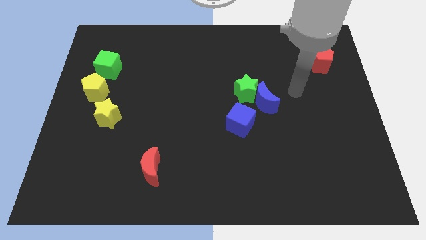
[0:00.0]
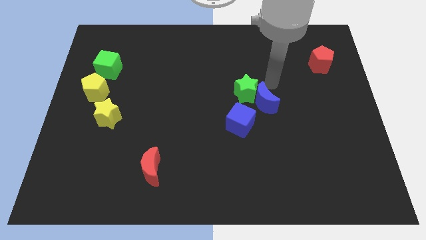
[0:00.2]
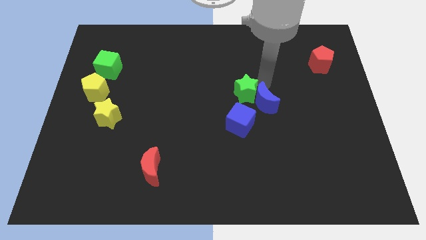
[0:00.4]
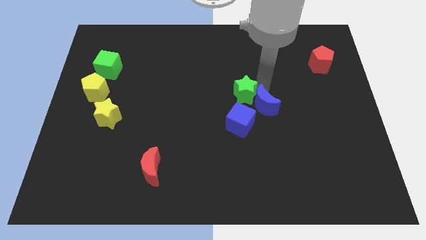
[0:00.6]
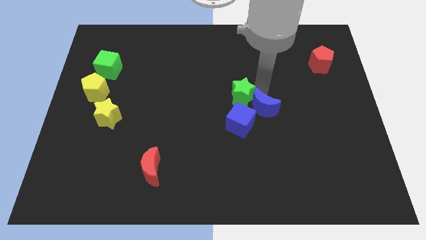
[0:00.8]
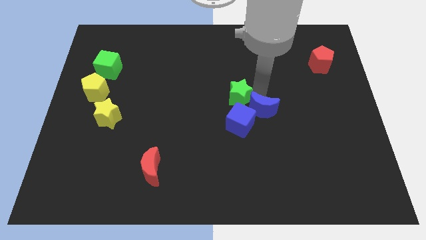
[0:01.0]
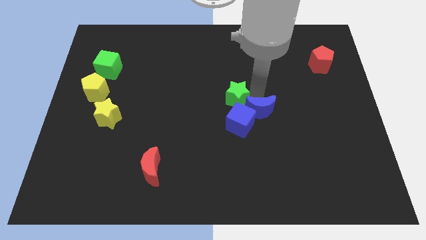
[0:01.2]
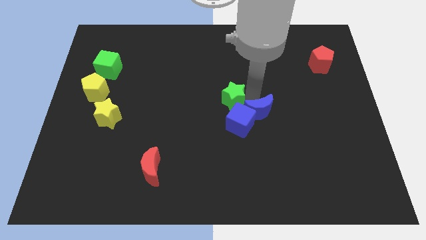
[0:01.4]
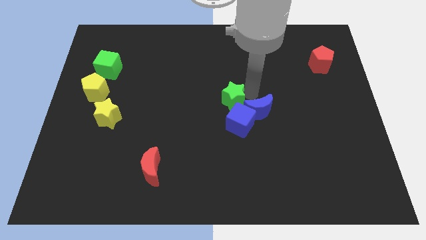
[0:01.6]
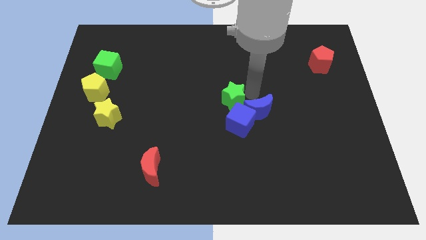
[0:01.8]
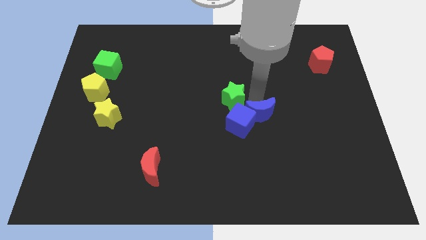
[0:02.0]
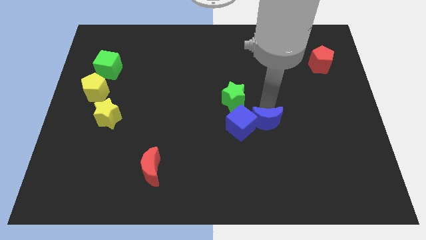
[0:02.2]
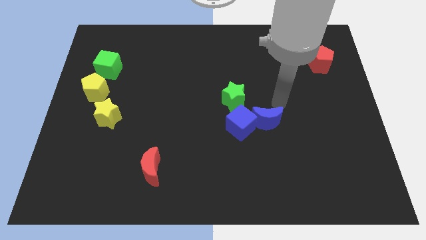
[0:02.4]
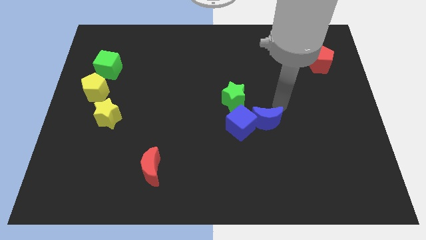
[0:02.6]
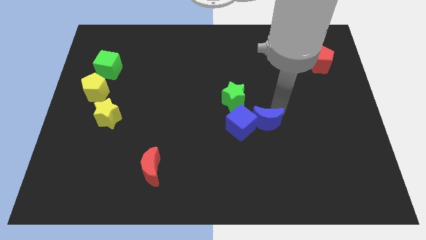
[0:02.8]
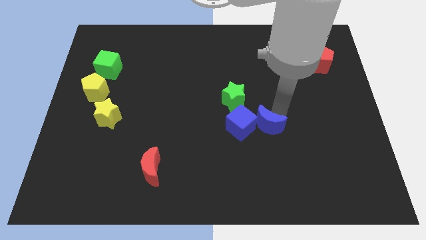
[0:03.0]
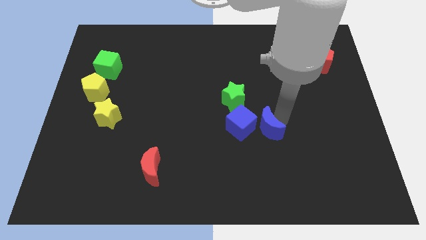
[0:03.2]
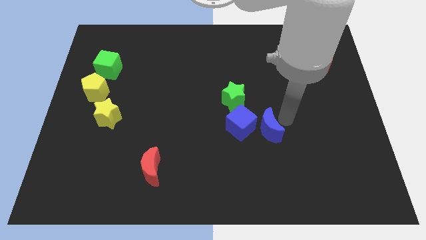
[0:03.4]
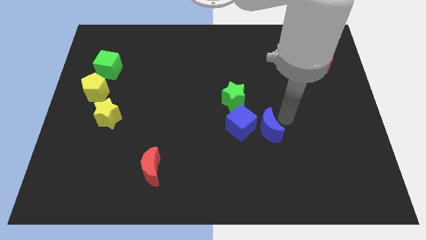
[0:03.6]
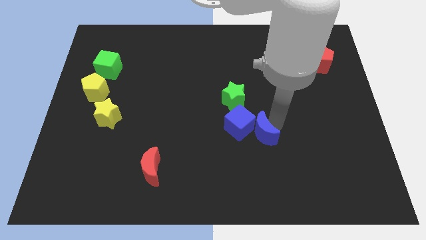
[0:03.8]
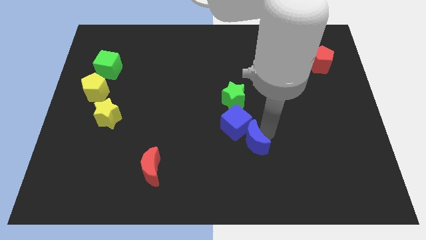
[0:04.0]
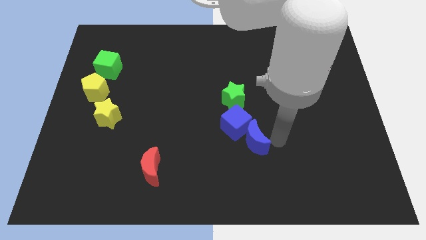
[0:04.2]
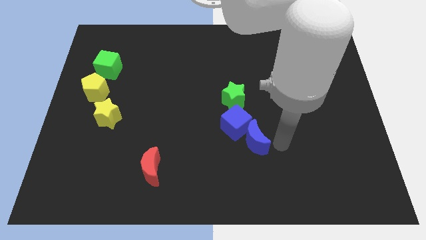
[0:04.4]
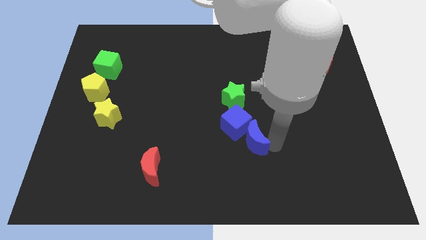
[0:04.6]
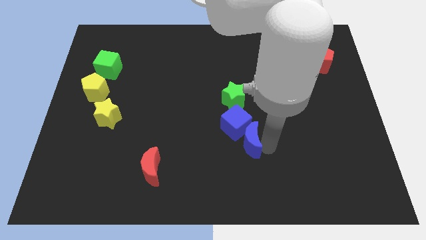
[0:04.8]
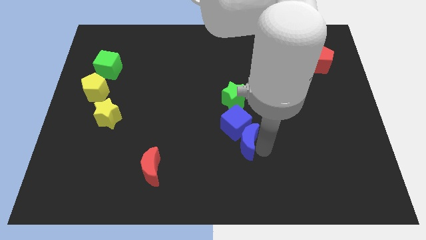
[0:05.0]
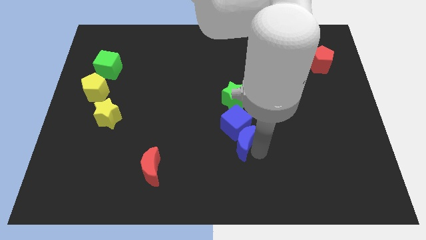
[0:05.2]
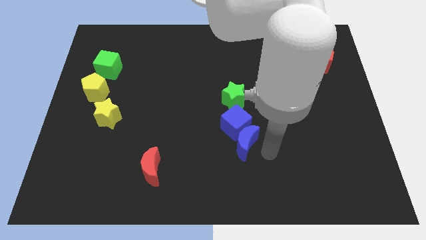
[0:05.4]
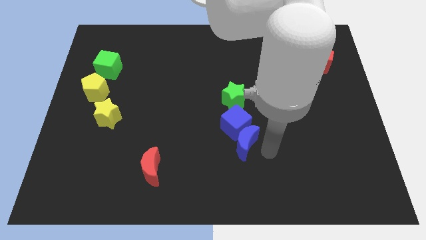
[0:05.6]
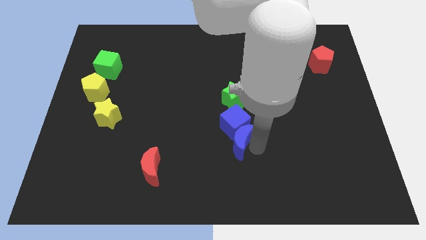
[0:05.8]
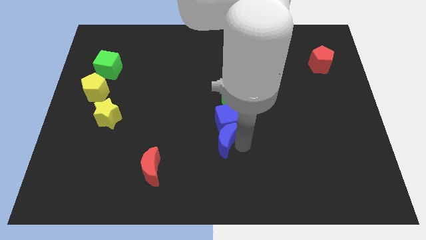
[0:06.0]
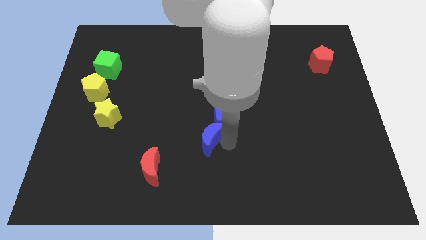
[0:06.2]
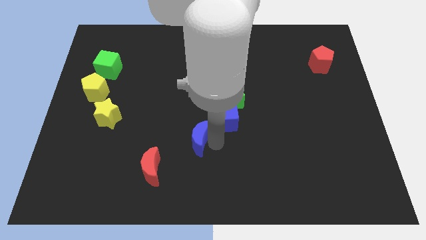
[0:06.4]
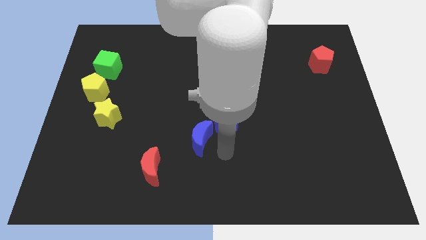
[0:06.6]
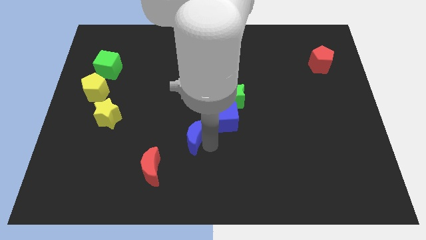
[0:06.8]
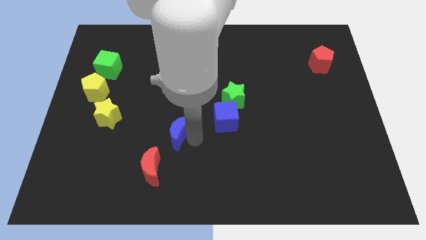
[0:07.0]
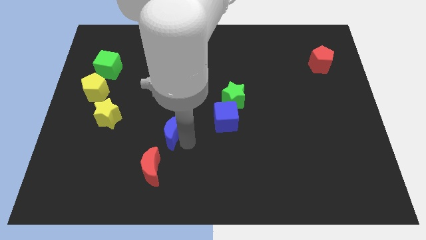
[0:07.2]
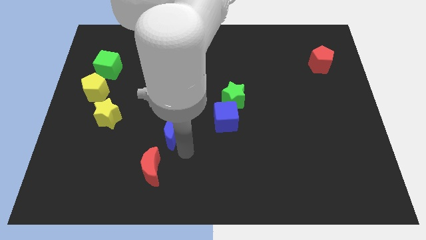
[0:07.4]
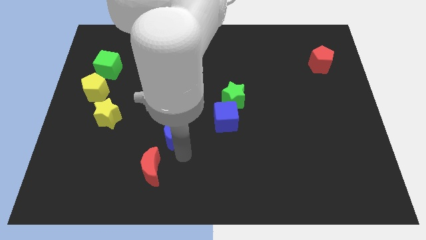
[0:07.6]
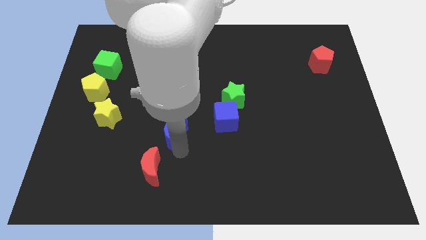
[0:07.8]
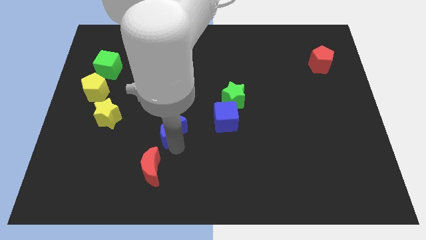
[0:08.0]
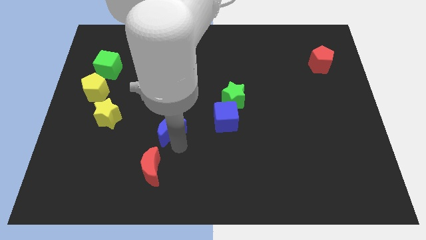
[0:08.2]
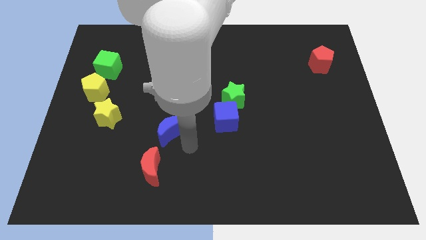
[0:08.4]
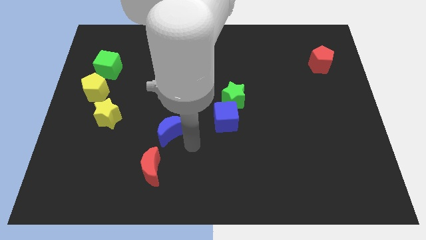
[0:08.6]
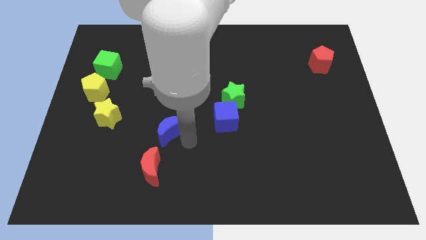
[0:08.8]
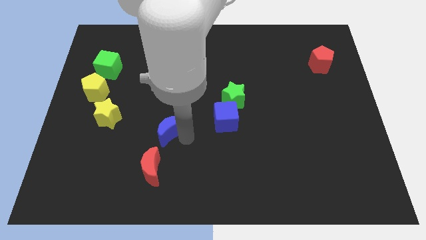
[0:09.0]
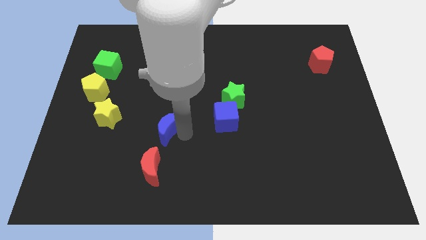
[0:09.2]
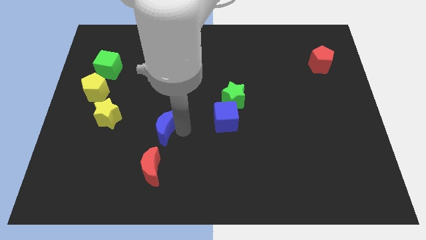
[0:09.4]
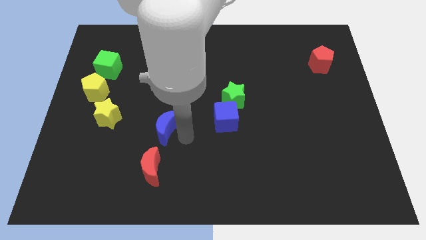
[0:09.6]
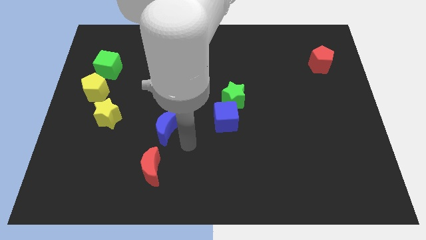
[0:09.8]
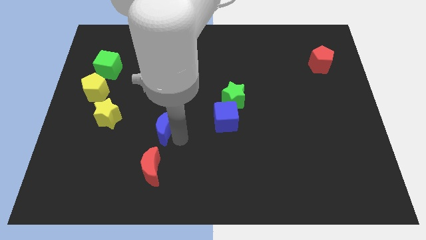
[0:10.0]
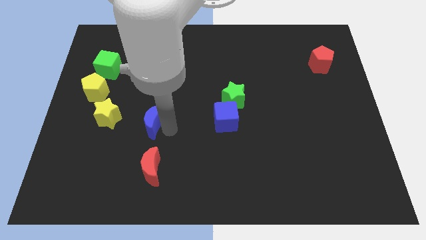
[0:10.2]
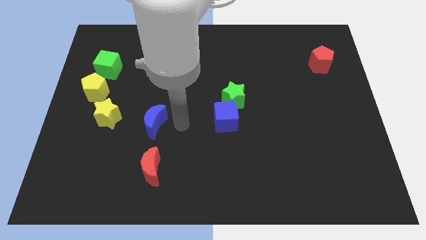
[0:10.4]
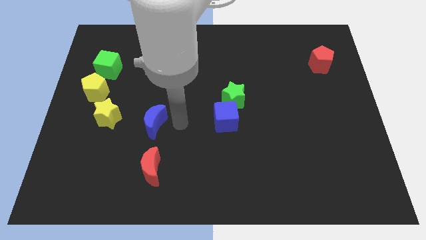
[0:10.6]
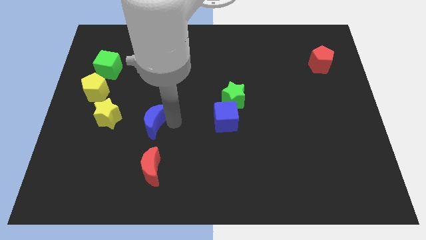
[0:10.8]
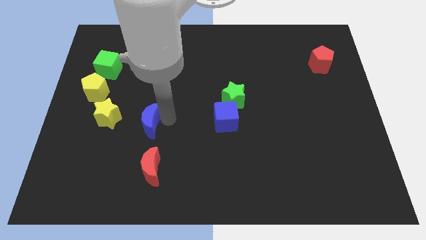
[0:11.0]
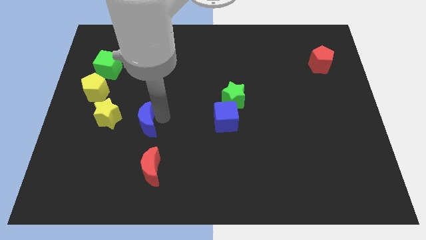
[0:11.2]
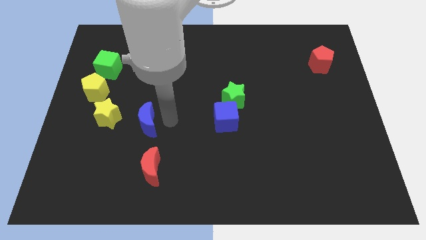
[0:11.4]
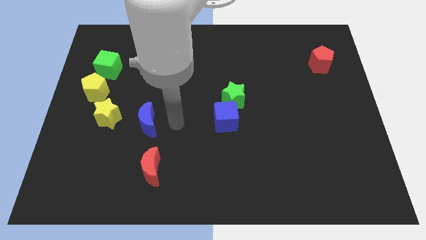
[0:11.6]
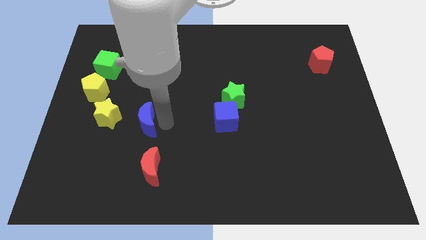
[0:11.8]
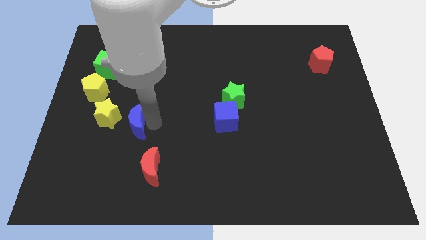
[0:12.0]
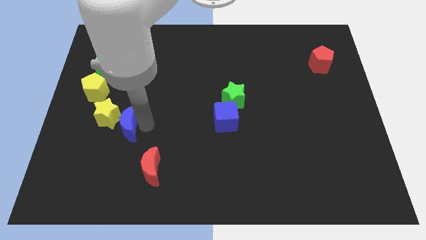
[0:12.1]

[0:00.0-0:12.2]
push the blue moon close to the yellow star

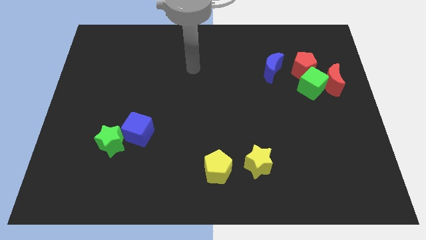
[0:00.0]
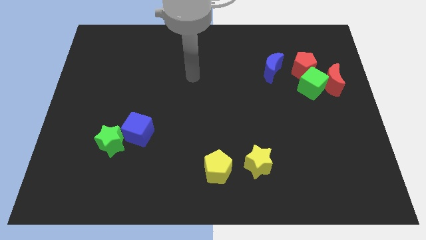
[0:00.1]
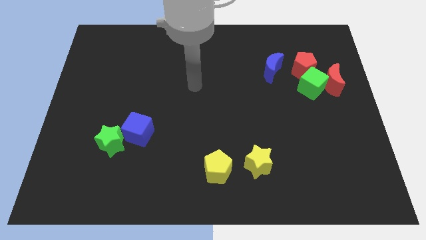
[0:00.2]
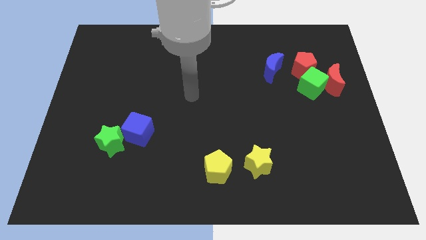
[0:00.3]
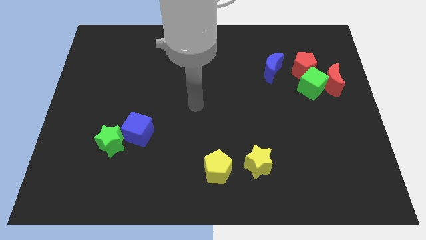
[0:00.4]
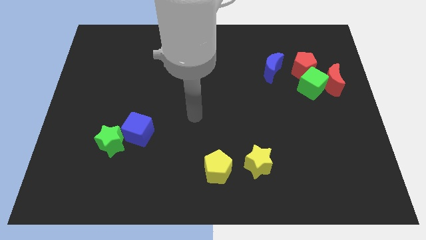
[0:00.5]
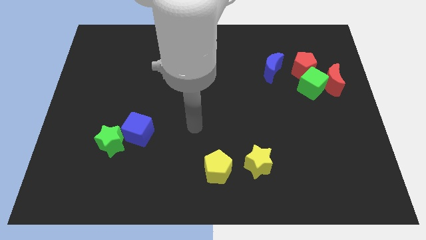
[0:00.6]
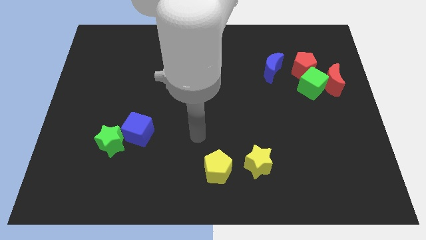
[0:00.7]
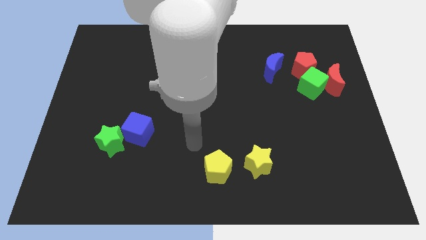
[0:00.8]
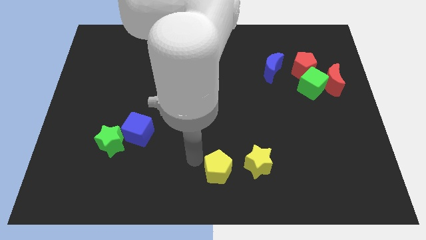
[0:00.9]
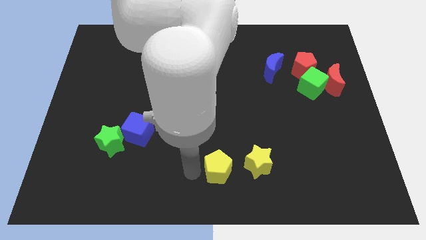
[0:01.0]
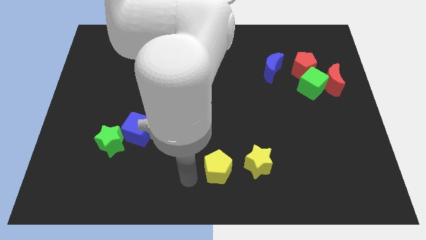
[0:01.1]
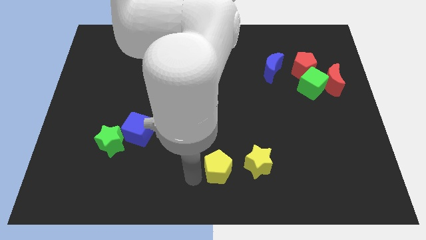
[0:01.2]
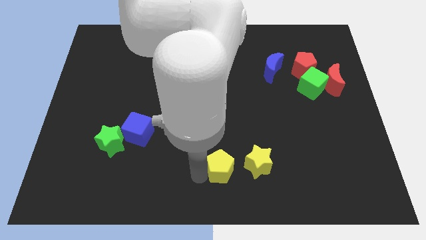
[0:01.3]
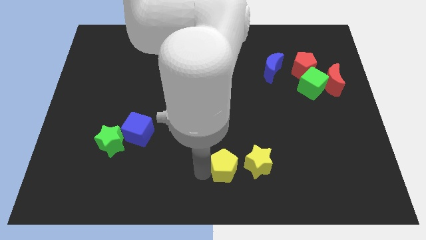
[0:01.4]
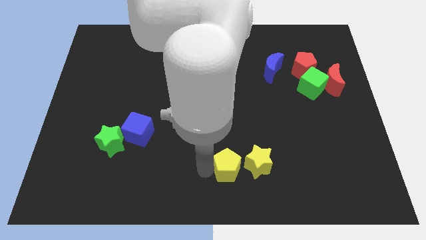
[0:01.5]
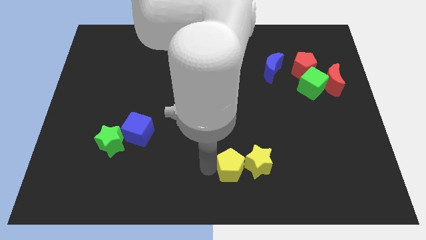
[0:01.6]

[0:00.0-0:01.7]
slide the yellow pentagon to the yellow star
